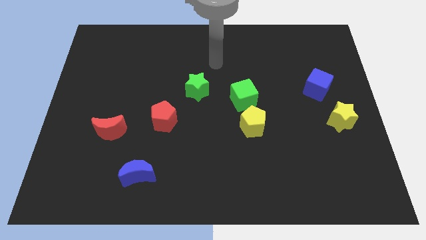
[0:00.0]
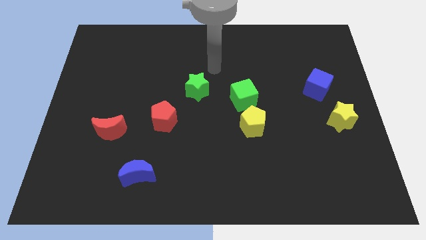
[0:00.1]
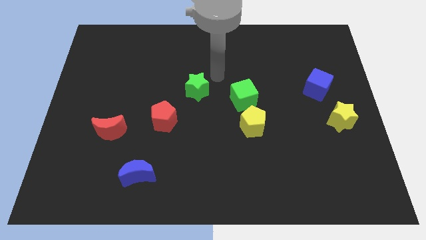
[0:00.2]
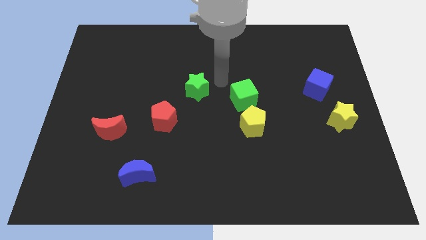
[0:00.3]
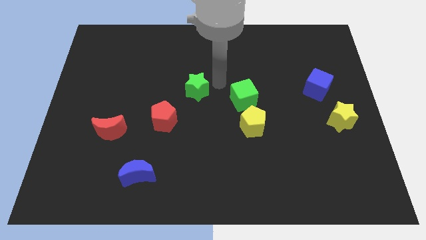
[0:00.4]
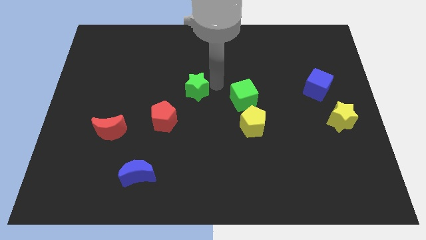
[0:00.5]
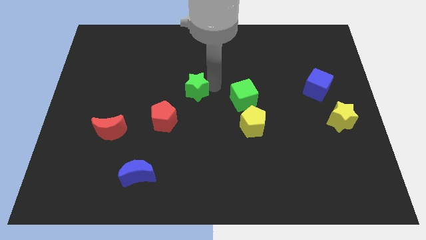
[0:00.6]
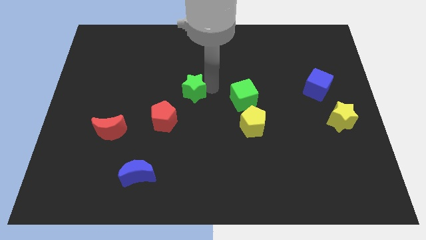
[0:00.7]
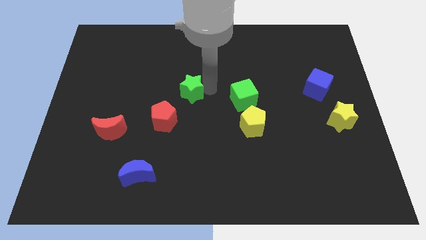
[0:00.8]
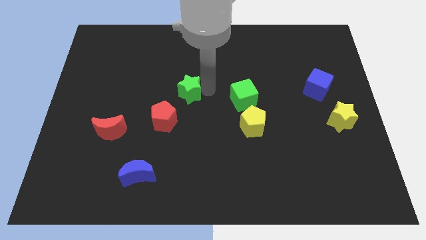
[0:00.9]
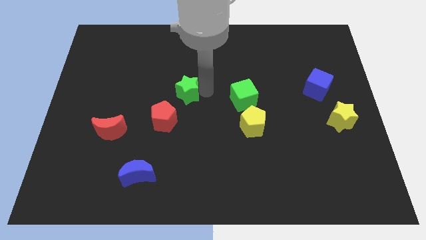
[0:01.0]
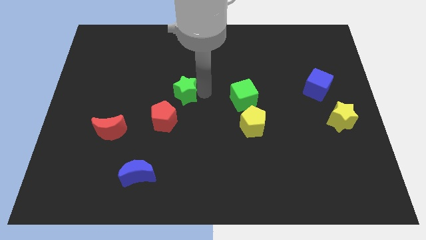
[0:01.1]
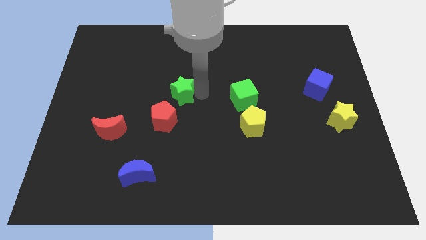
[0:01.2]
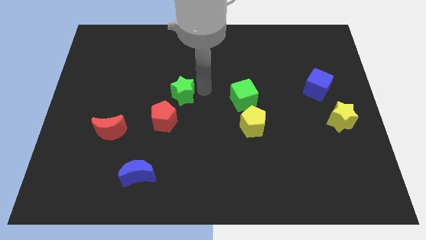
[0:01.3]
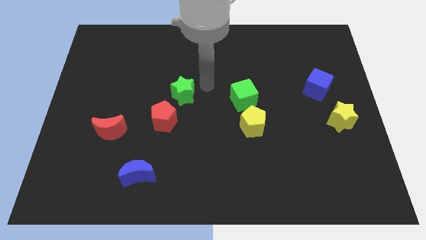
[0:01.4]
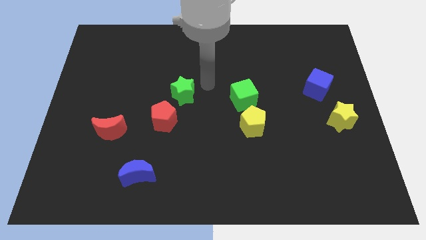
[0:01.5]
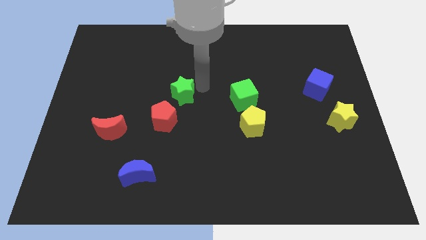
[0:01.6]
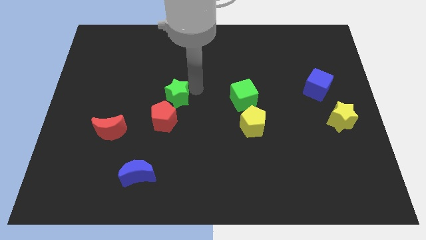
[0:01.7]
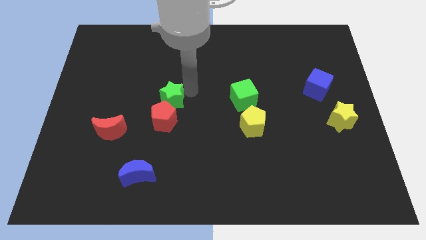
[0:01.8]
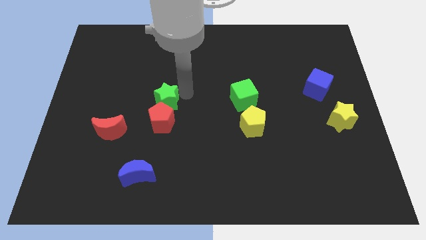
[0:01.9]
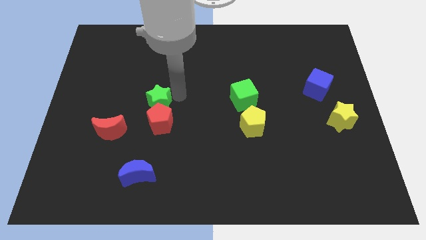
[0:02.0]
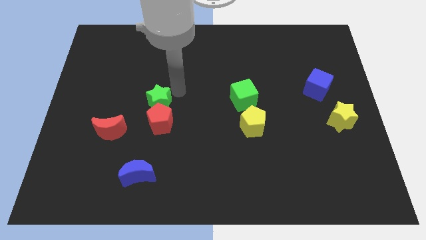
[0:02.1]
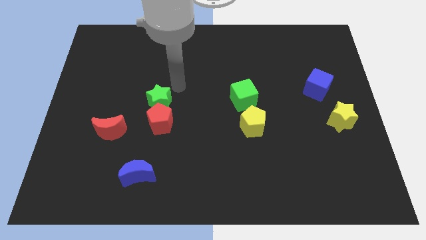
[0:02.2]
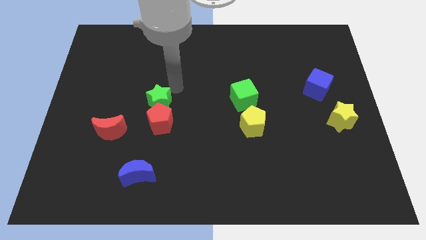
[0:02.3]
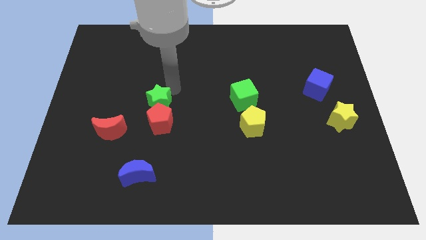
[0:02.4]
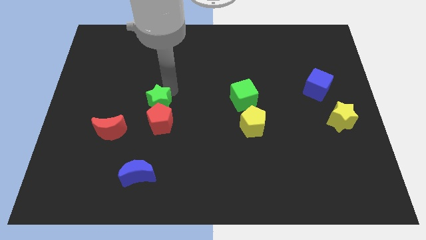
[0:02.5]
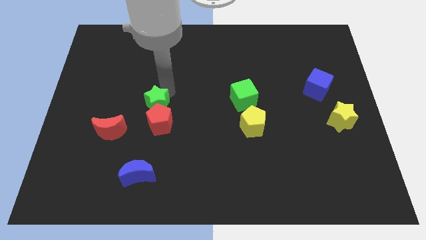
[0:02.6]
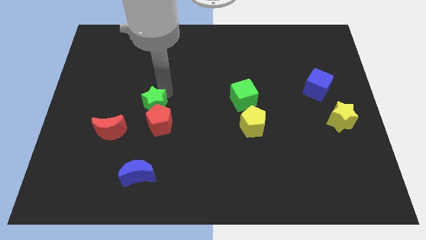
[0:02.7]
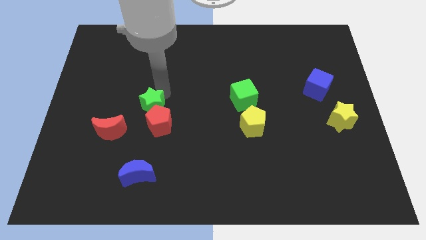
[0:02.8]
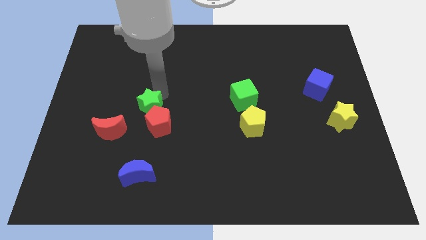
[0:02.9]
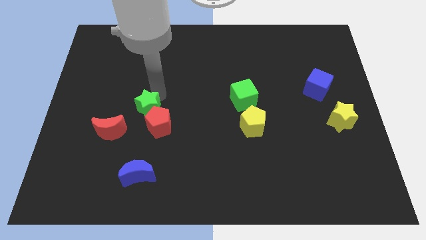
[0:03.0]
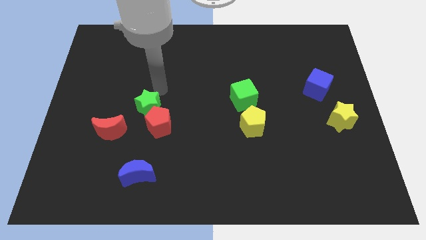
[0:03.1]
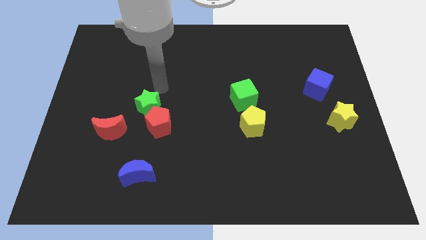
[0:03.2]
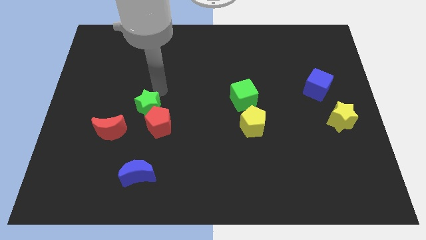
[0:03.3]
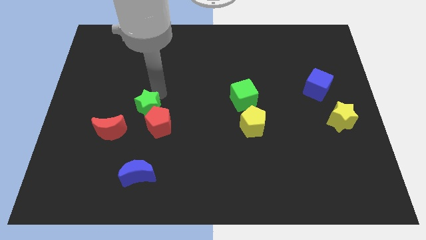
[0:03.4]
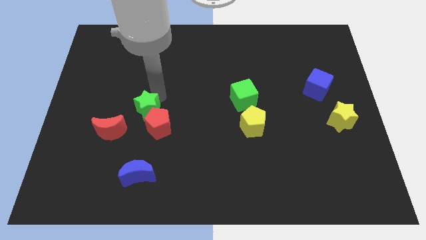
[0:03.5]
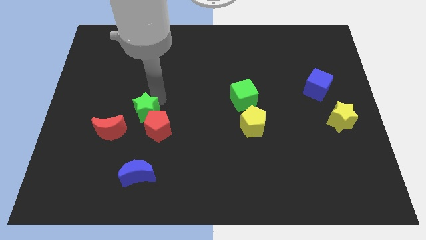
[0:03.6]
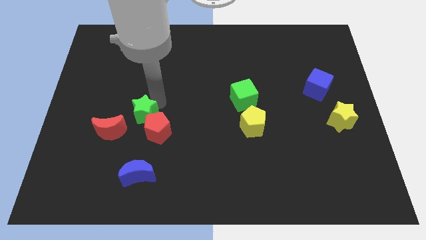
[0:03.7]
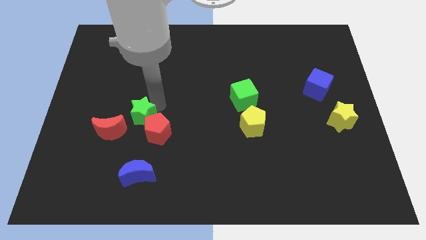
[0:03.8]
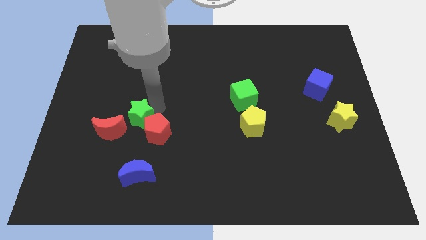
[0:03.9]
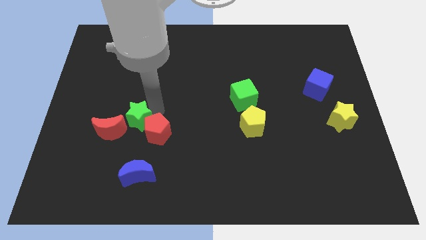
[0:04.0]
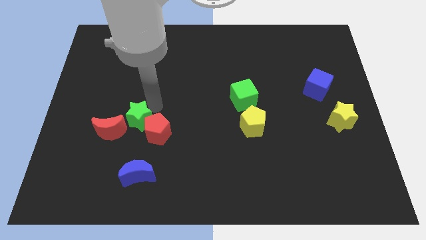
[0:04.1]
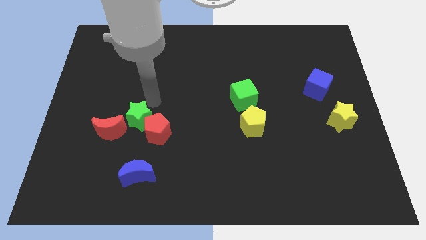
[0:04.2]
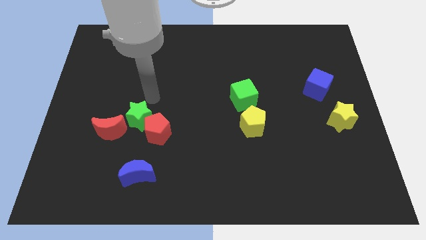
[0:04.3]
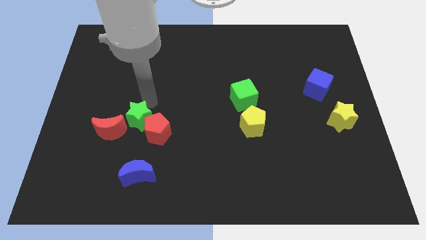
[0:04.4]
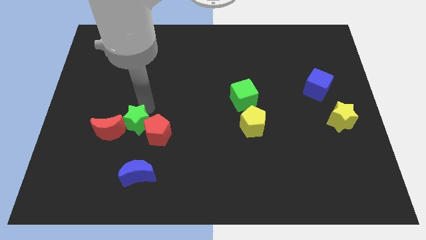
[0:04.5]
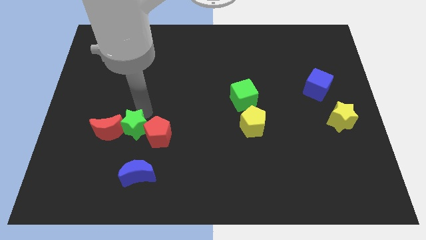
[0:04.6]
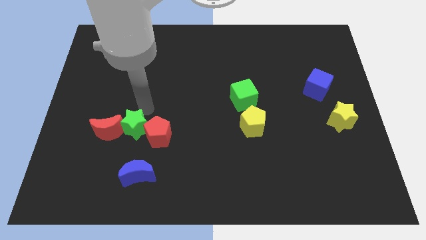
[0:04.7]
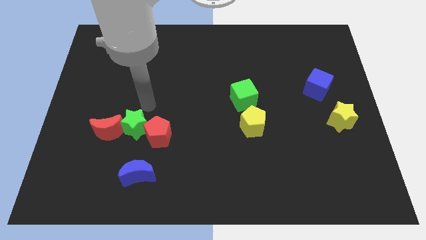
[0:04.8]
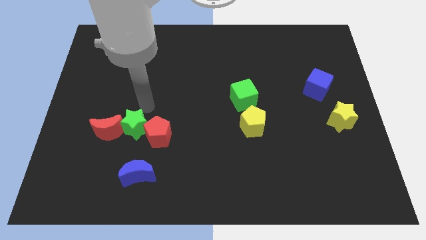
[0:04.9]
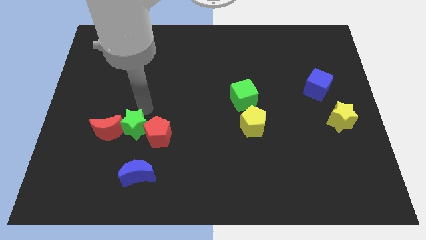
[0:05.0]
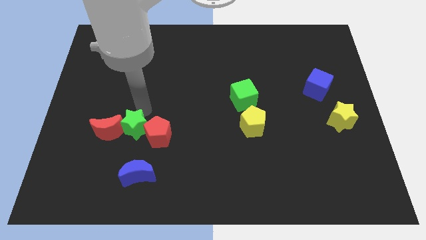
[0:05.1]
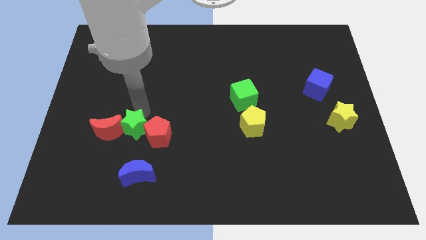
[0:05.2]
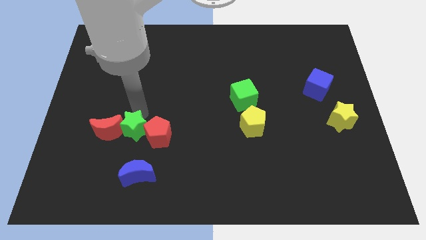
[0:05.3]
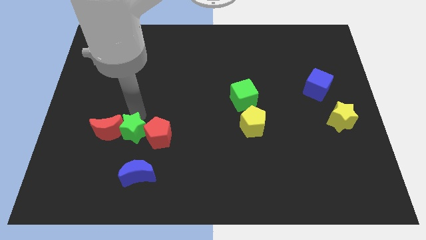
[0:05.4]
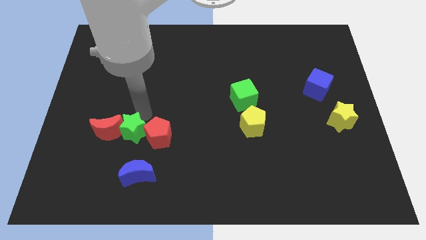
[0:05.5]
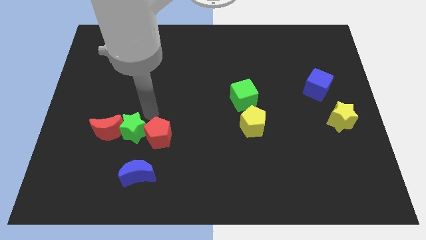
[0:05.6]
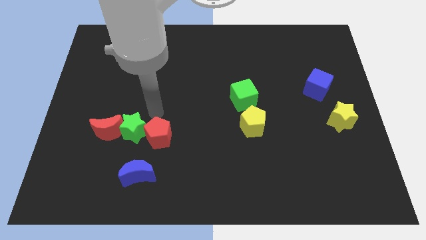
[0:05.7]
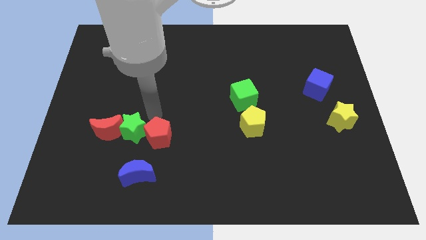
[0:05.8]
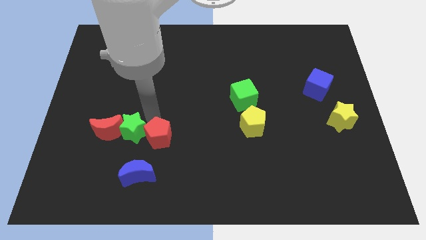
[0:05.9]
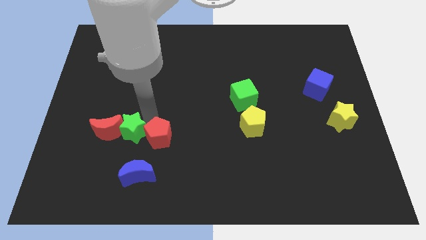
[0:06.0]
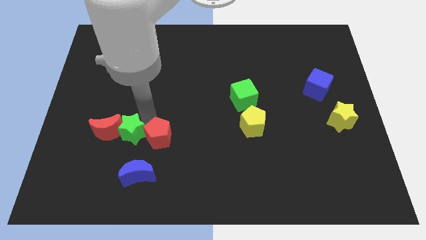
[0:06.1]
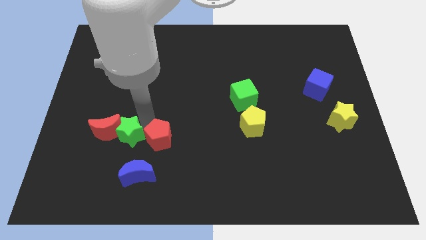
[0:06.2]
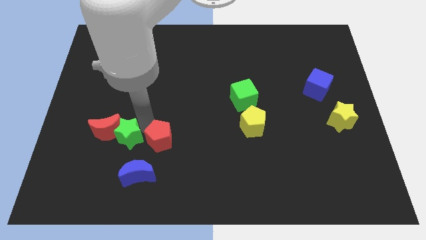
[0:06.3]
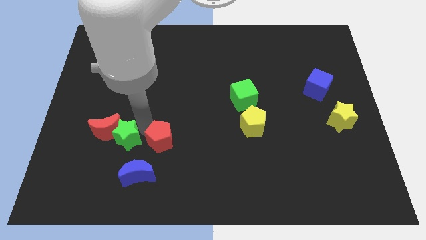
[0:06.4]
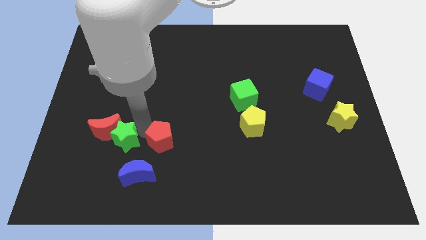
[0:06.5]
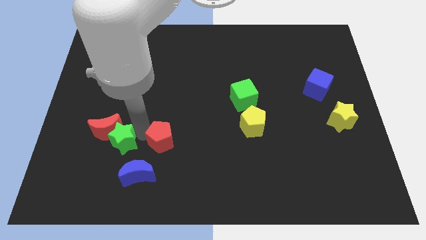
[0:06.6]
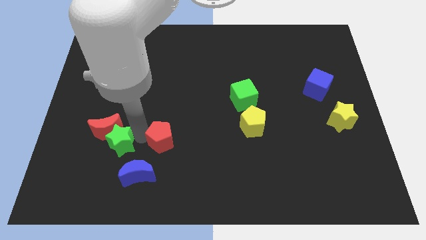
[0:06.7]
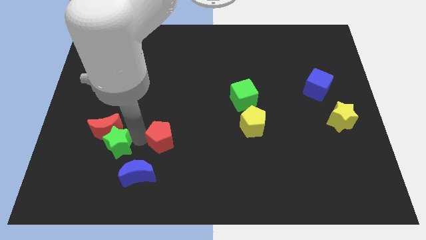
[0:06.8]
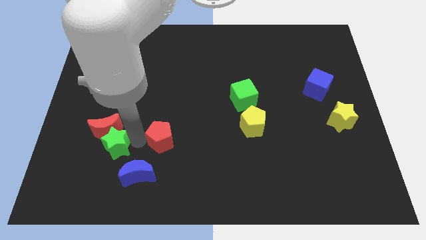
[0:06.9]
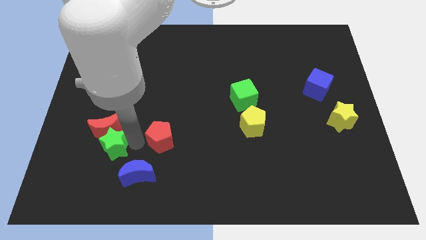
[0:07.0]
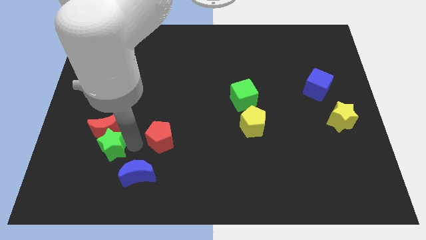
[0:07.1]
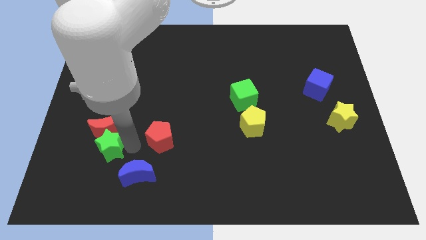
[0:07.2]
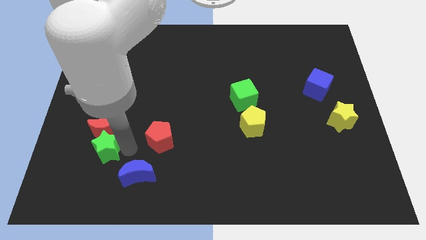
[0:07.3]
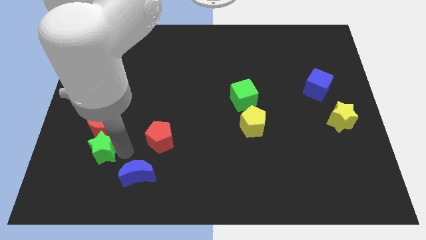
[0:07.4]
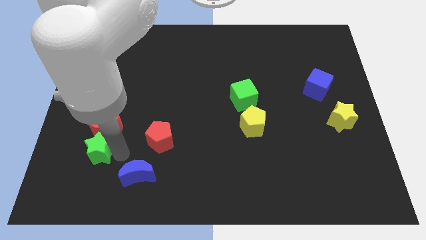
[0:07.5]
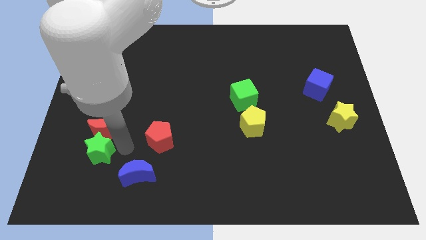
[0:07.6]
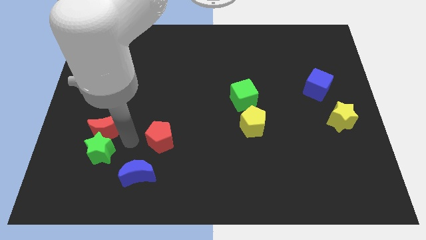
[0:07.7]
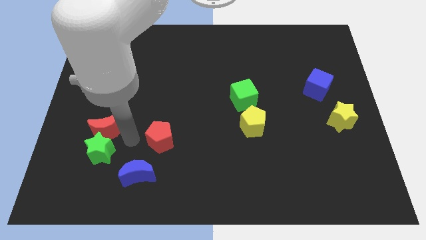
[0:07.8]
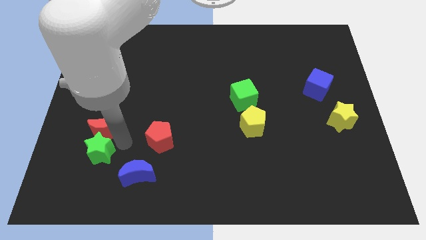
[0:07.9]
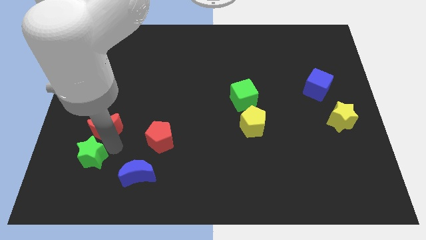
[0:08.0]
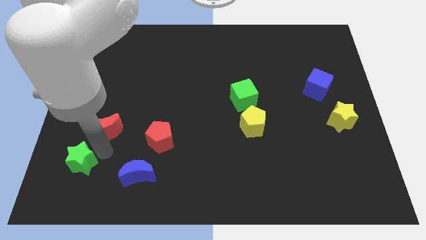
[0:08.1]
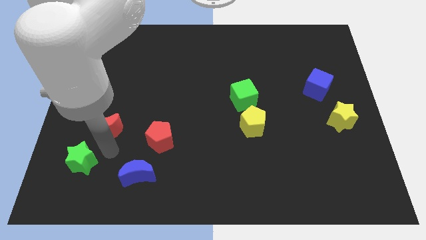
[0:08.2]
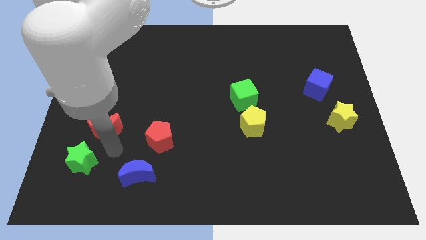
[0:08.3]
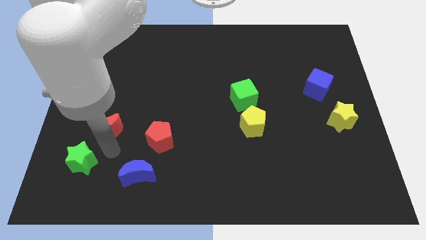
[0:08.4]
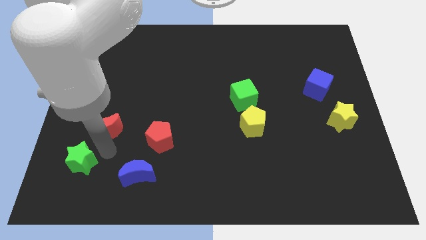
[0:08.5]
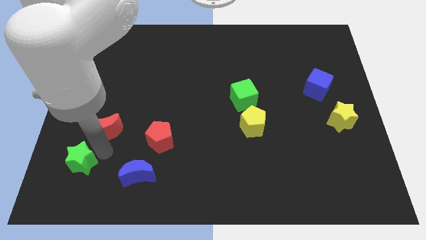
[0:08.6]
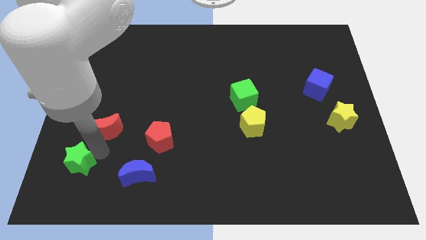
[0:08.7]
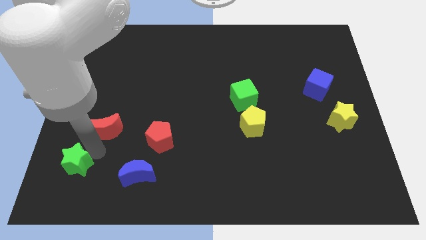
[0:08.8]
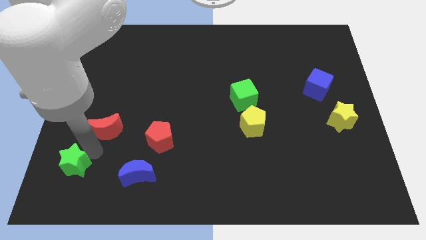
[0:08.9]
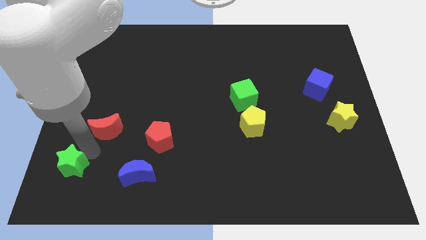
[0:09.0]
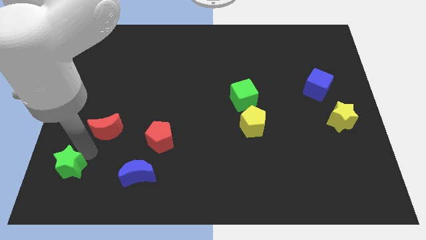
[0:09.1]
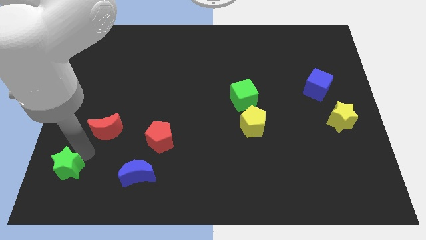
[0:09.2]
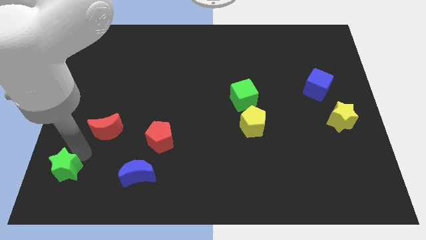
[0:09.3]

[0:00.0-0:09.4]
put the green star to the bottom left corner
